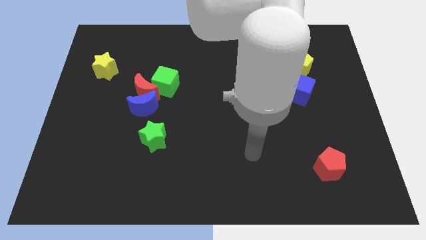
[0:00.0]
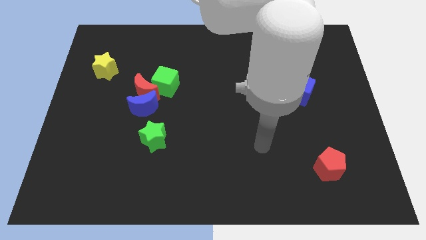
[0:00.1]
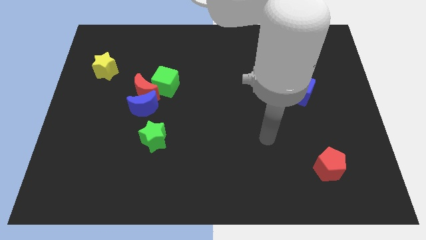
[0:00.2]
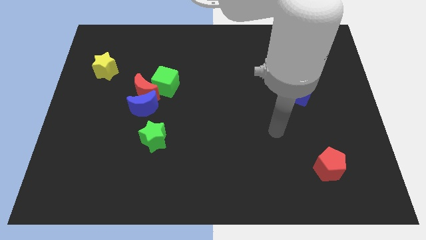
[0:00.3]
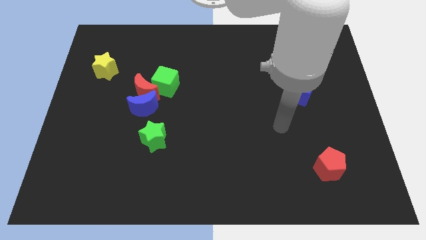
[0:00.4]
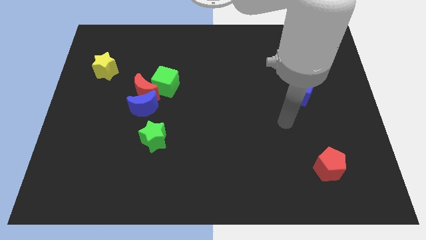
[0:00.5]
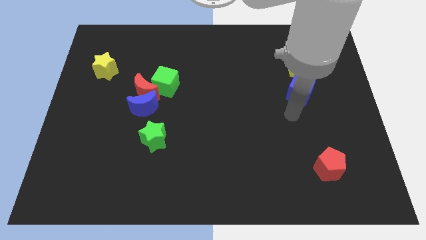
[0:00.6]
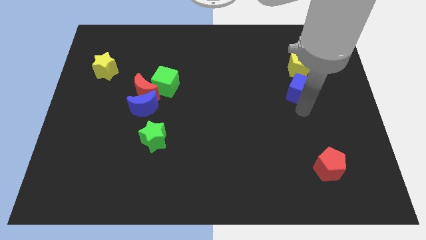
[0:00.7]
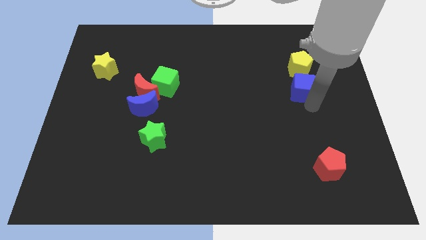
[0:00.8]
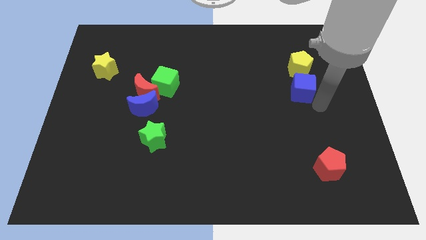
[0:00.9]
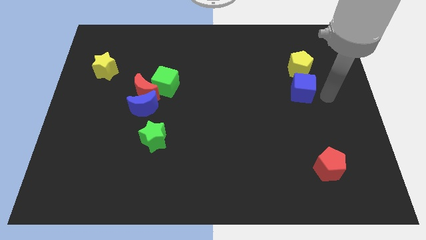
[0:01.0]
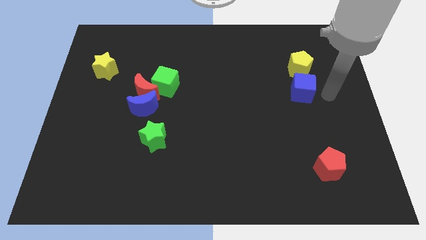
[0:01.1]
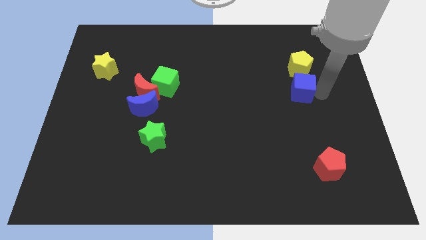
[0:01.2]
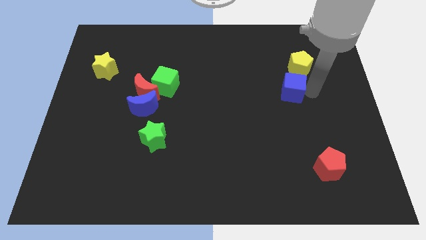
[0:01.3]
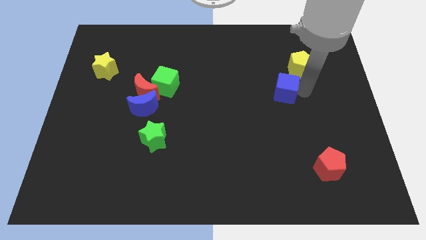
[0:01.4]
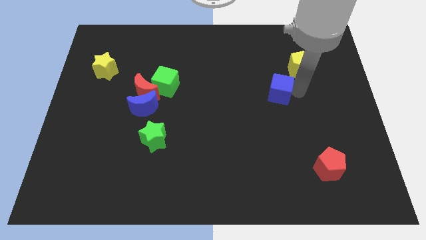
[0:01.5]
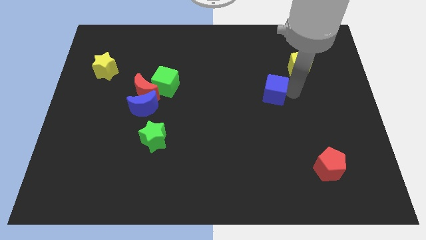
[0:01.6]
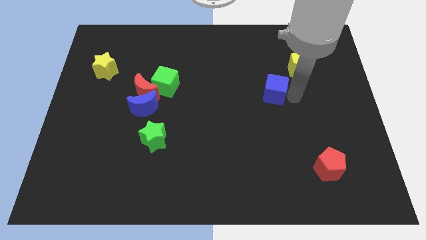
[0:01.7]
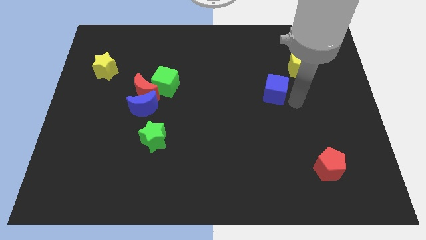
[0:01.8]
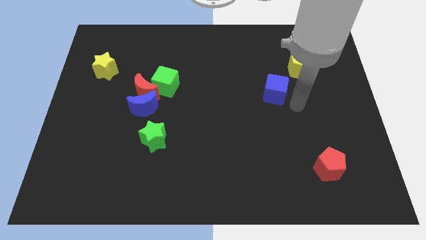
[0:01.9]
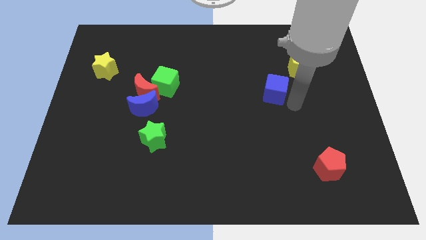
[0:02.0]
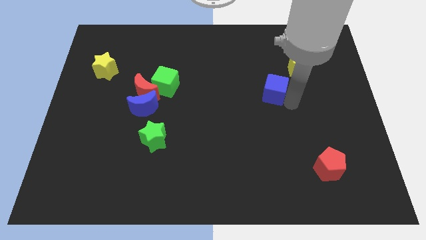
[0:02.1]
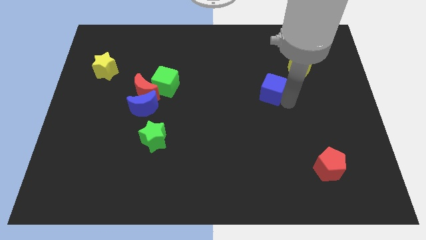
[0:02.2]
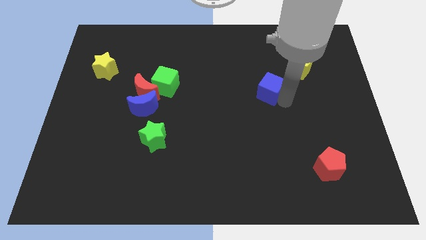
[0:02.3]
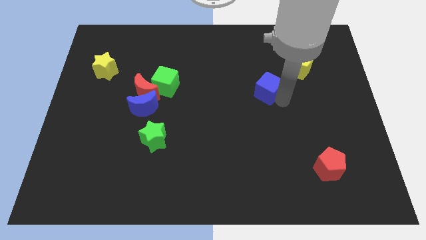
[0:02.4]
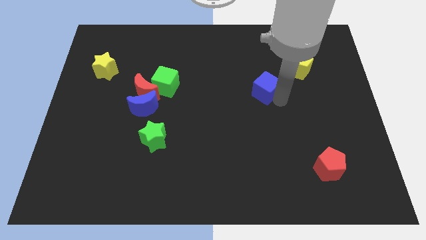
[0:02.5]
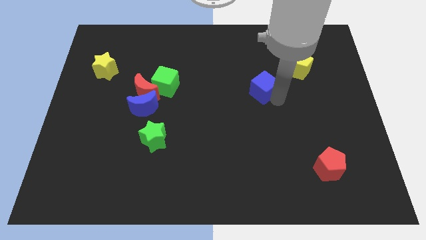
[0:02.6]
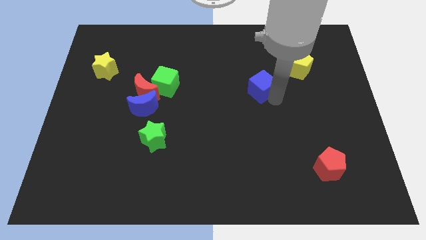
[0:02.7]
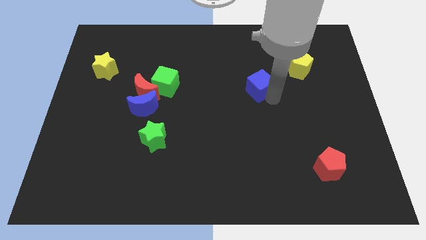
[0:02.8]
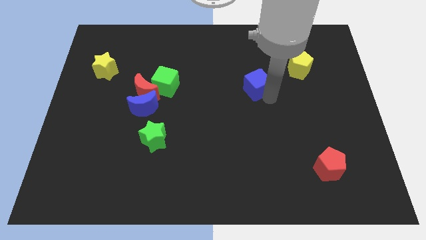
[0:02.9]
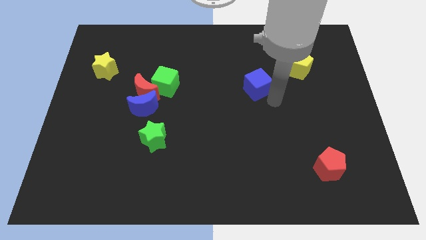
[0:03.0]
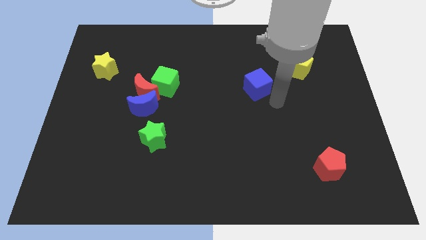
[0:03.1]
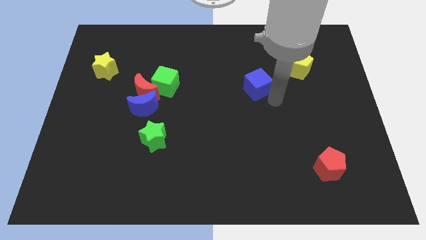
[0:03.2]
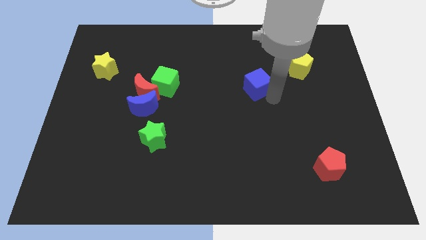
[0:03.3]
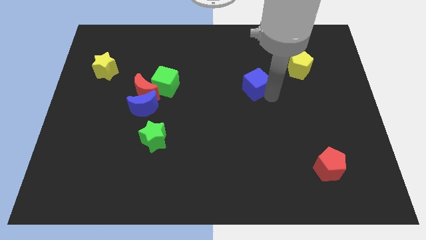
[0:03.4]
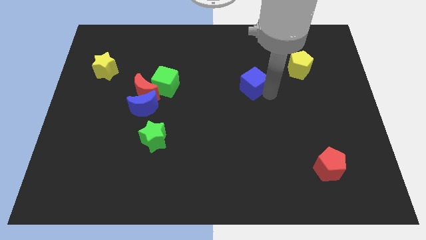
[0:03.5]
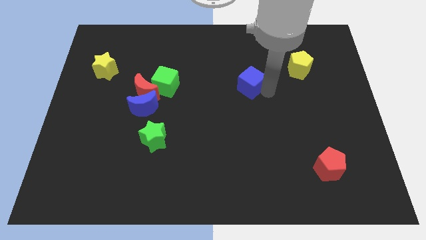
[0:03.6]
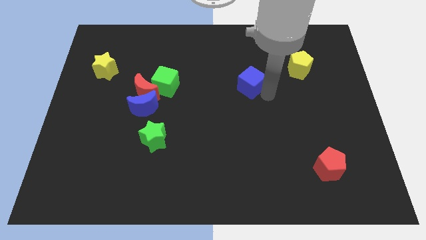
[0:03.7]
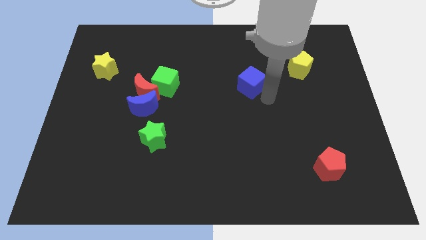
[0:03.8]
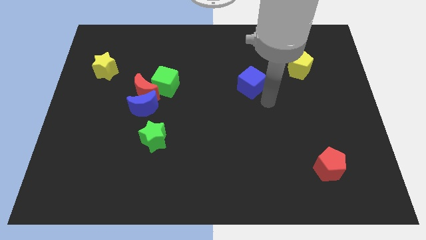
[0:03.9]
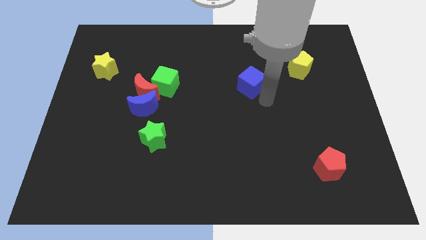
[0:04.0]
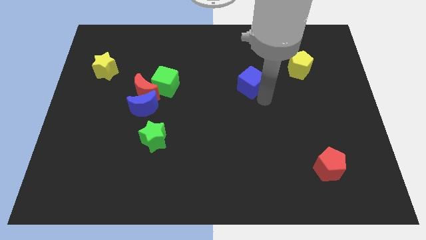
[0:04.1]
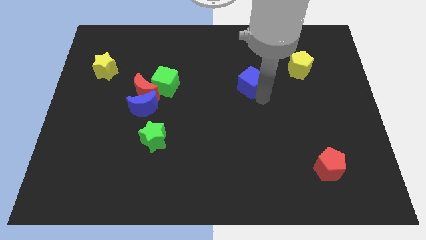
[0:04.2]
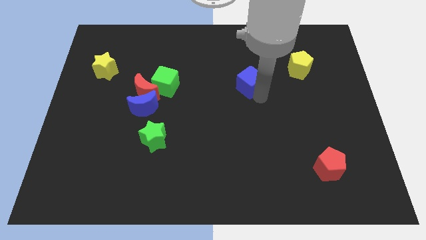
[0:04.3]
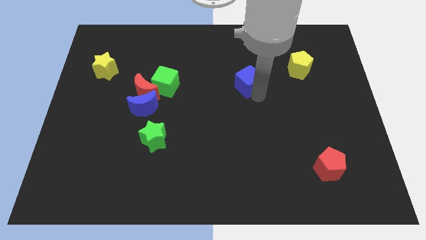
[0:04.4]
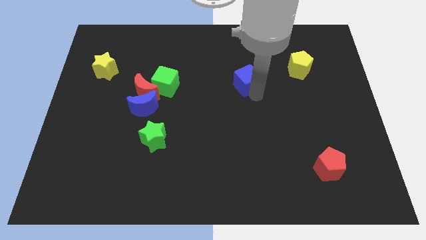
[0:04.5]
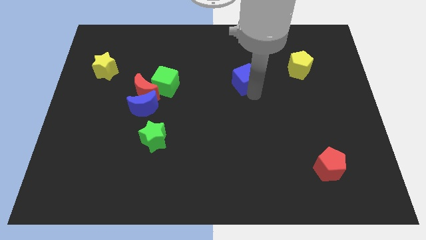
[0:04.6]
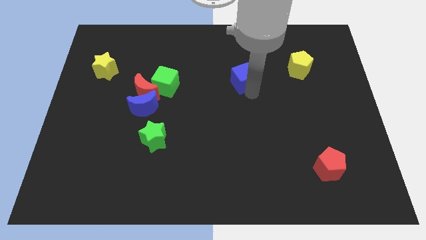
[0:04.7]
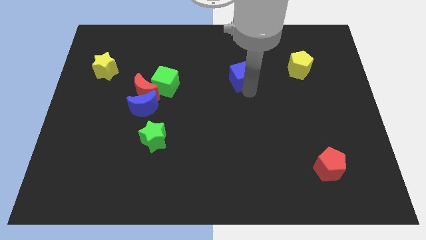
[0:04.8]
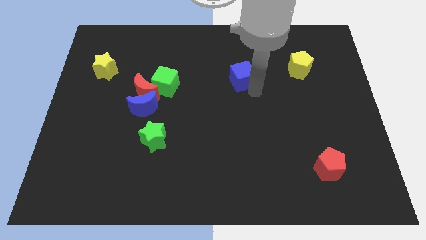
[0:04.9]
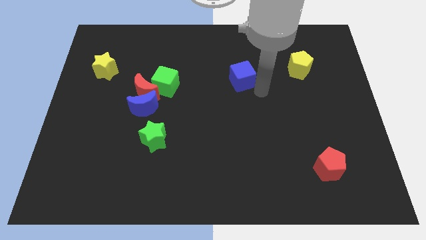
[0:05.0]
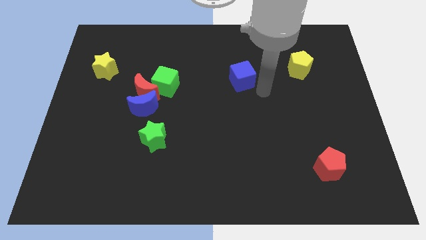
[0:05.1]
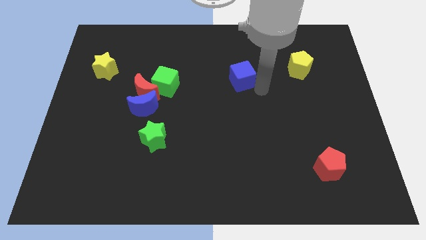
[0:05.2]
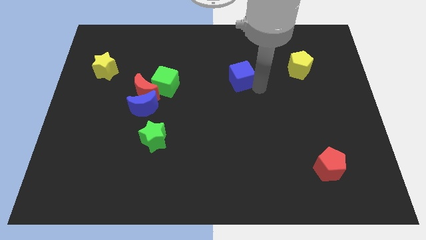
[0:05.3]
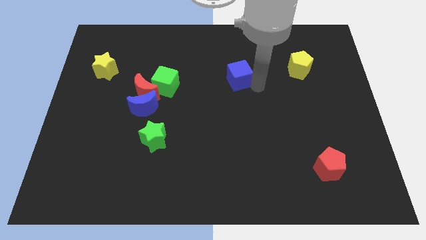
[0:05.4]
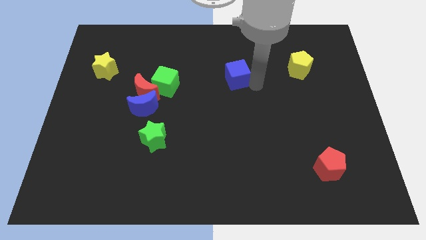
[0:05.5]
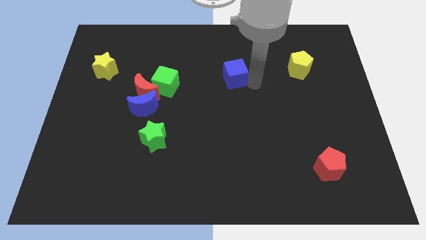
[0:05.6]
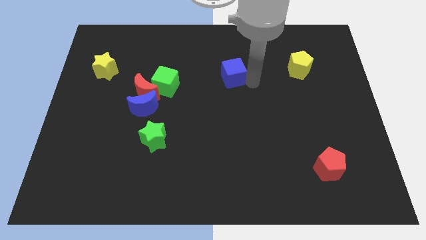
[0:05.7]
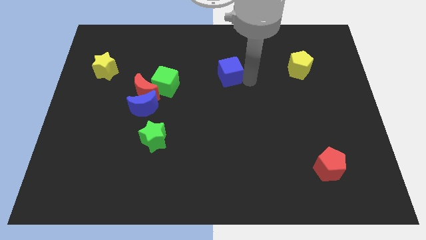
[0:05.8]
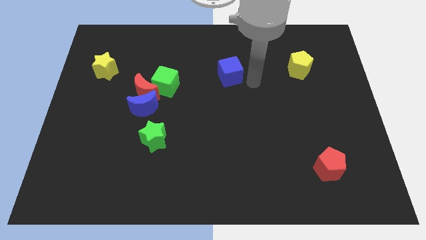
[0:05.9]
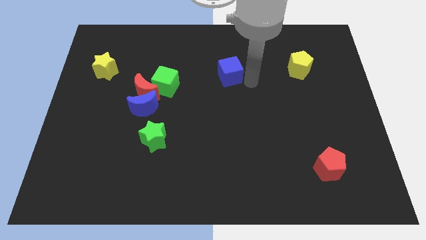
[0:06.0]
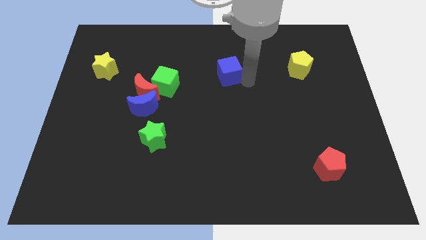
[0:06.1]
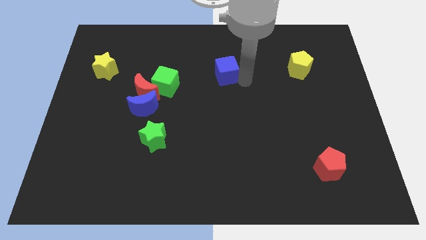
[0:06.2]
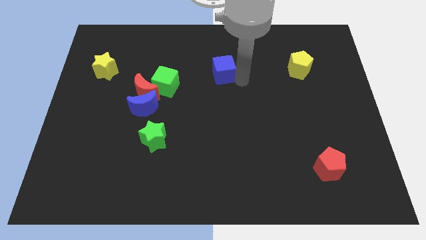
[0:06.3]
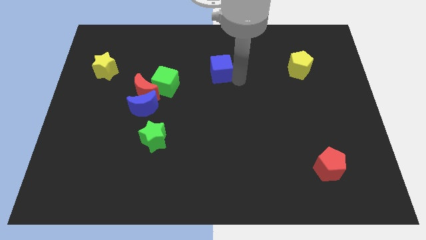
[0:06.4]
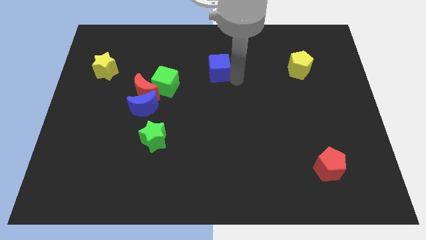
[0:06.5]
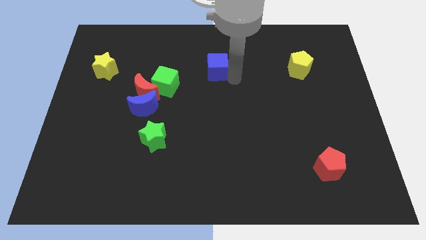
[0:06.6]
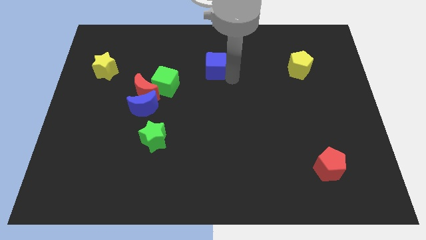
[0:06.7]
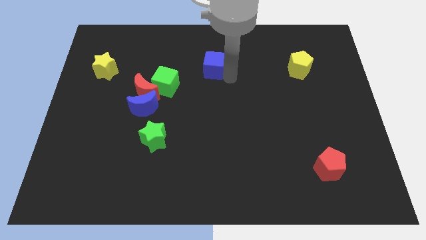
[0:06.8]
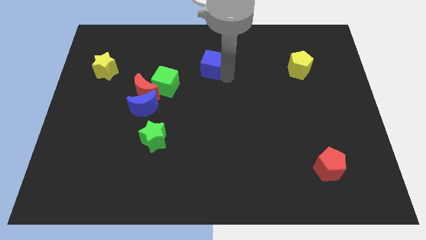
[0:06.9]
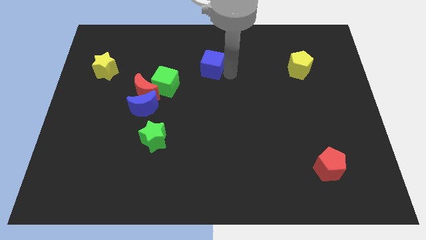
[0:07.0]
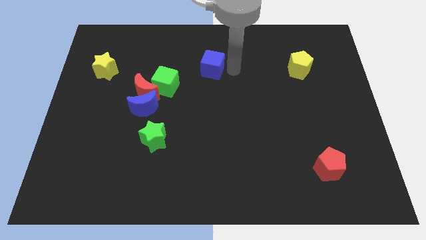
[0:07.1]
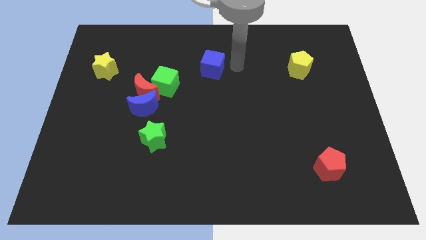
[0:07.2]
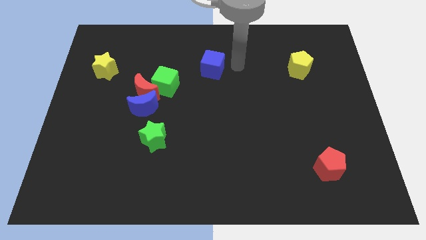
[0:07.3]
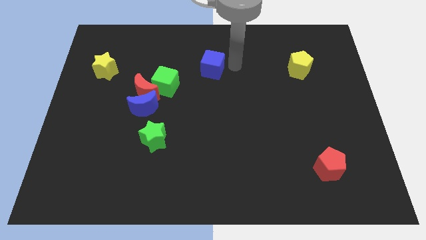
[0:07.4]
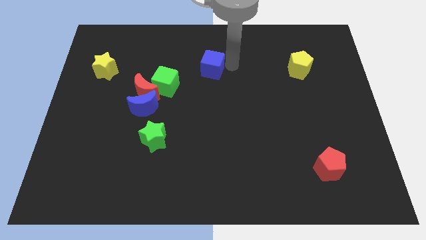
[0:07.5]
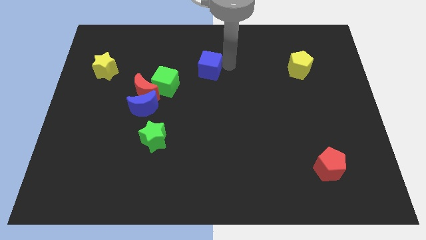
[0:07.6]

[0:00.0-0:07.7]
push the blue cube to the top right of the green cube
